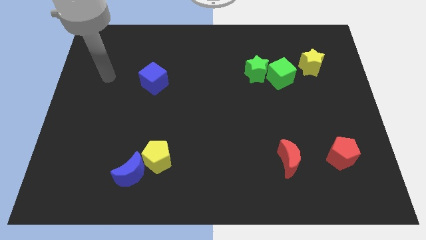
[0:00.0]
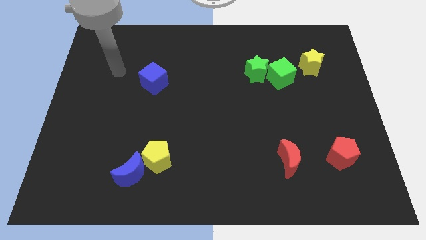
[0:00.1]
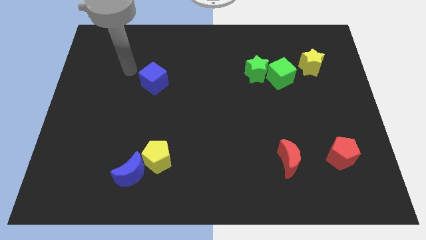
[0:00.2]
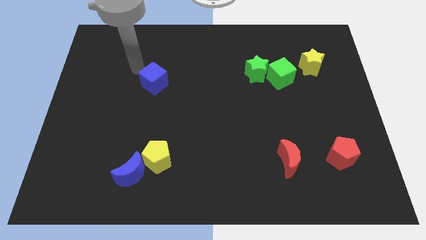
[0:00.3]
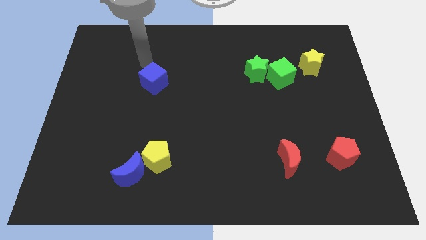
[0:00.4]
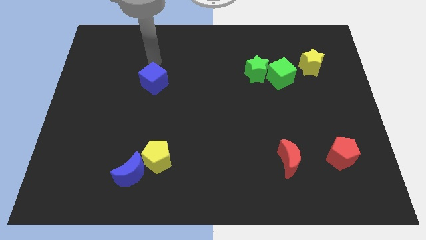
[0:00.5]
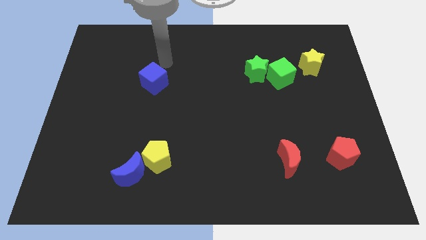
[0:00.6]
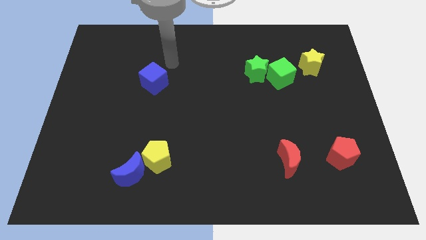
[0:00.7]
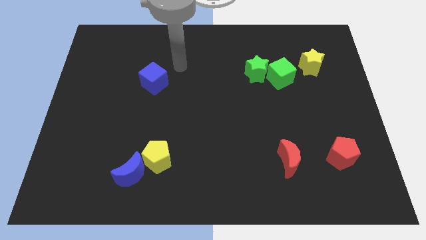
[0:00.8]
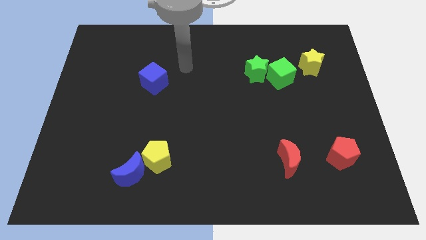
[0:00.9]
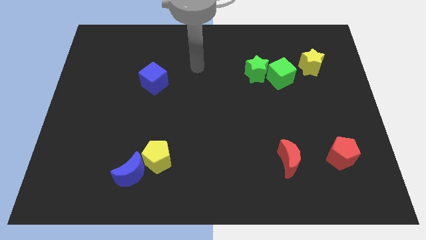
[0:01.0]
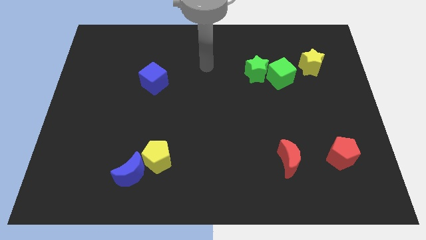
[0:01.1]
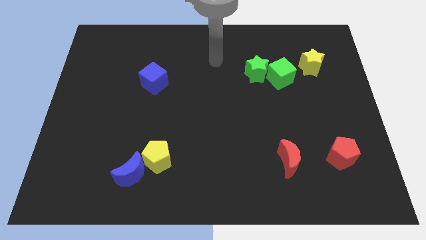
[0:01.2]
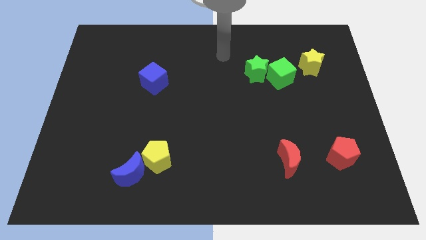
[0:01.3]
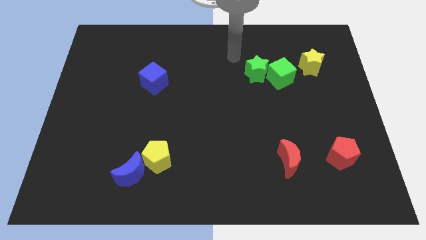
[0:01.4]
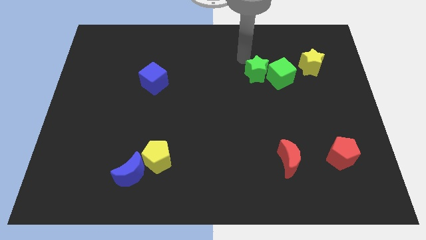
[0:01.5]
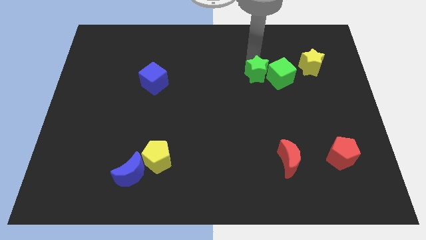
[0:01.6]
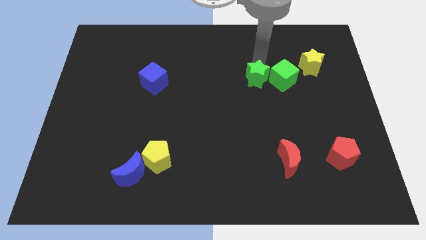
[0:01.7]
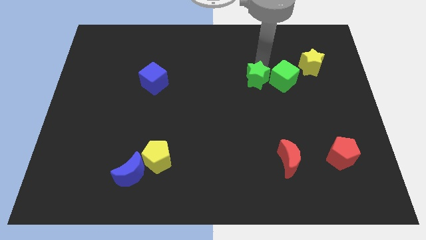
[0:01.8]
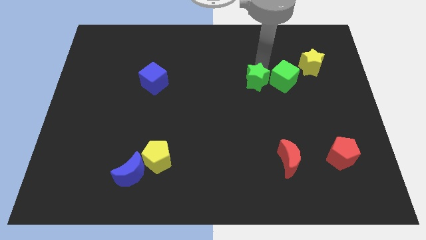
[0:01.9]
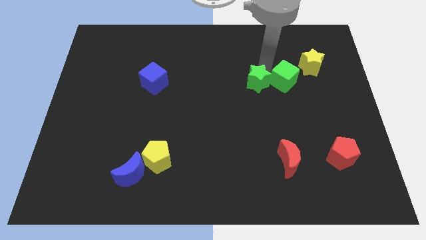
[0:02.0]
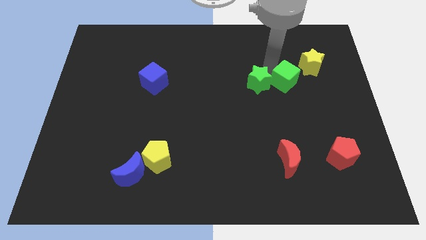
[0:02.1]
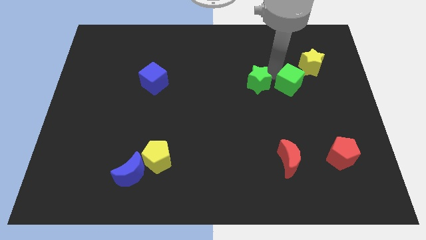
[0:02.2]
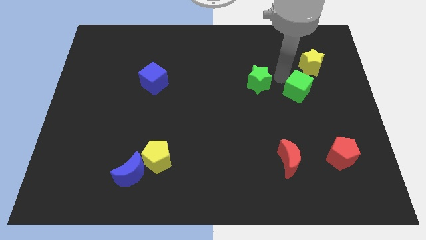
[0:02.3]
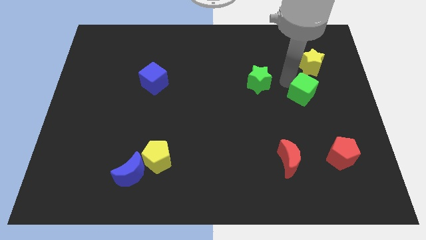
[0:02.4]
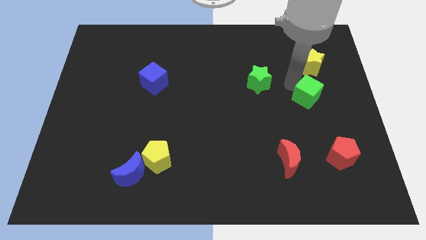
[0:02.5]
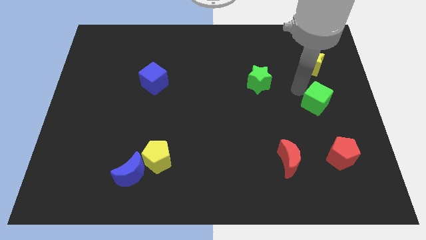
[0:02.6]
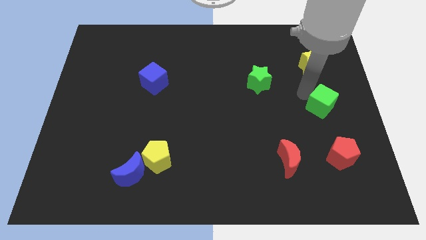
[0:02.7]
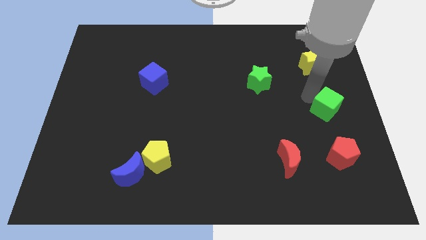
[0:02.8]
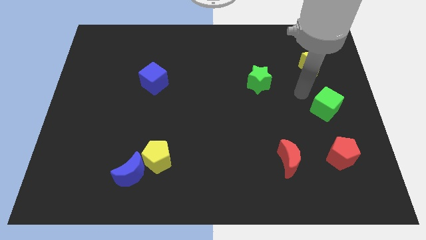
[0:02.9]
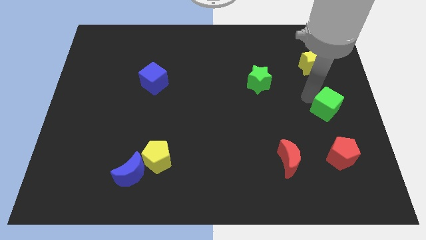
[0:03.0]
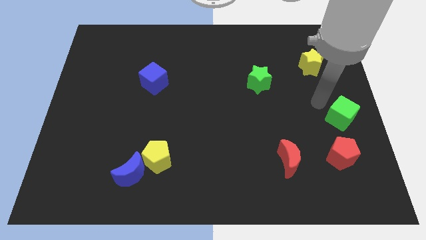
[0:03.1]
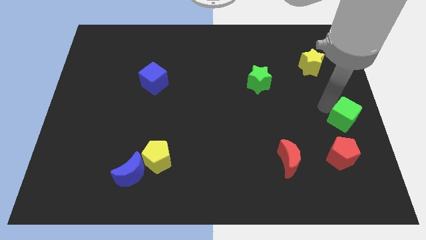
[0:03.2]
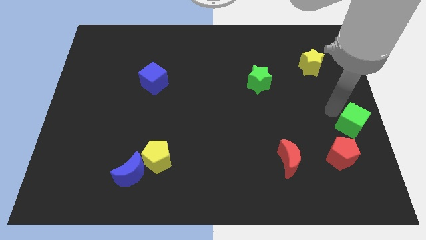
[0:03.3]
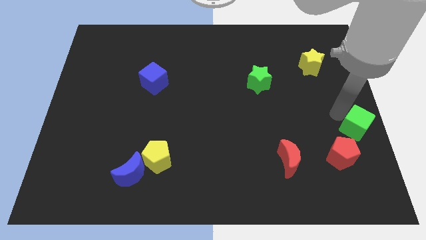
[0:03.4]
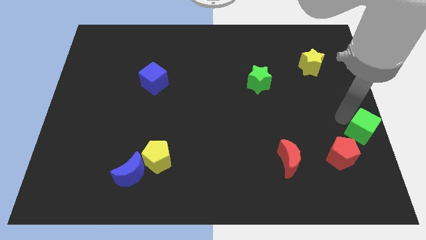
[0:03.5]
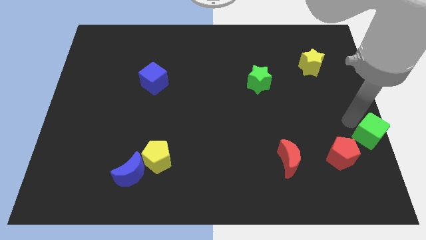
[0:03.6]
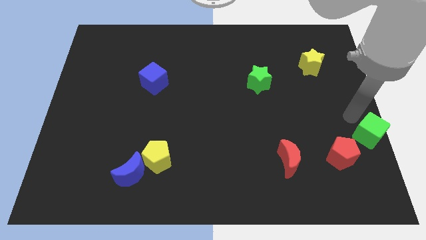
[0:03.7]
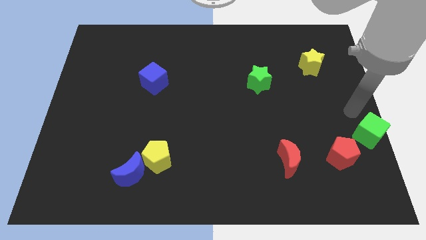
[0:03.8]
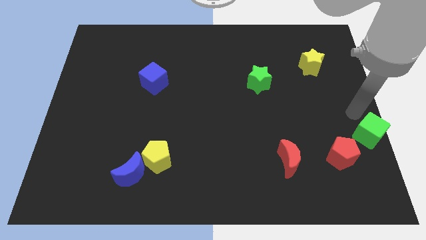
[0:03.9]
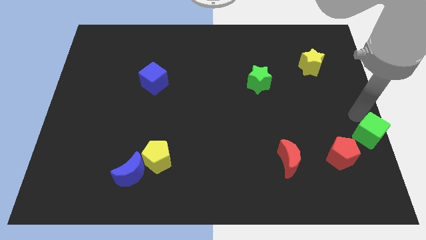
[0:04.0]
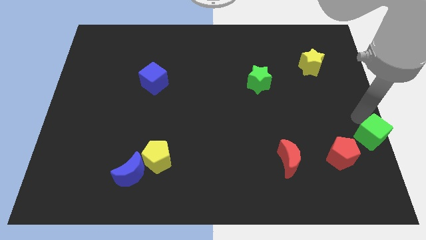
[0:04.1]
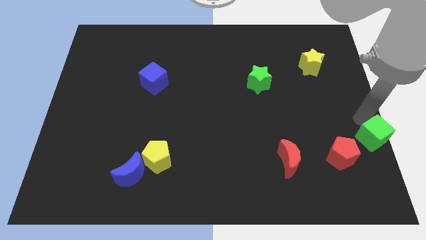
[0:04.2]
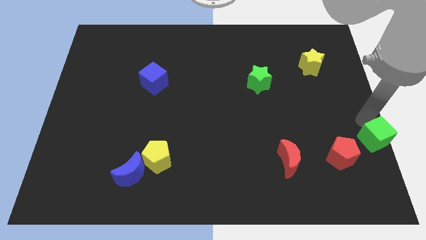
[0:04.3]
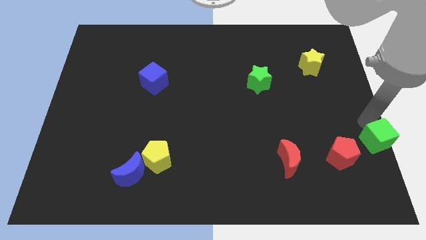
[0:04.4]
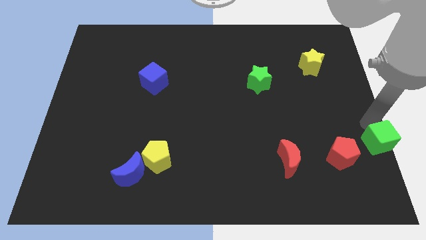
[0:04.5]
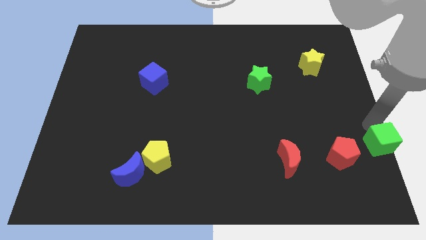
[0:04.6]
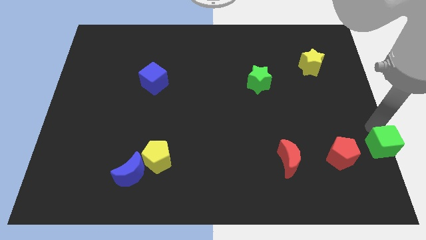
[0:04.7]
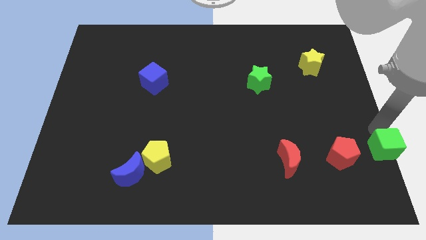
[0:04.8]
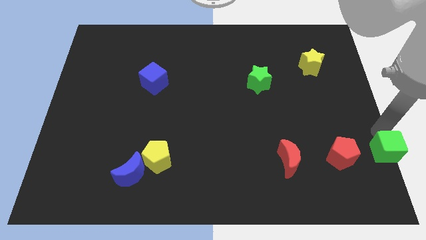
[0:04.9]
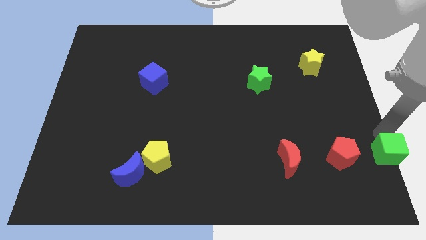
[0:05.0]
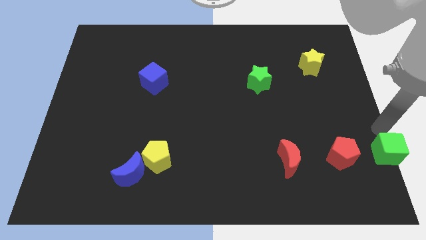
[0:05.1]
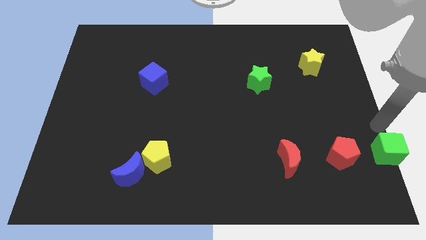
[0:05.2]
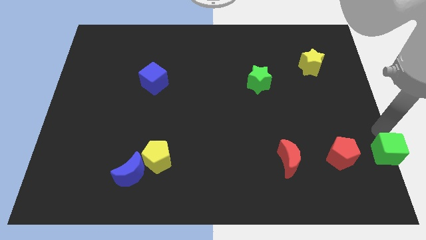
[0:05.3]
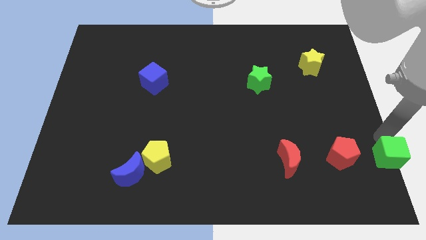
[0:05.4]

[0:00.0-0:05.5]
push the green cube to the bottom right of the board
